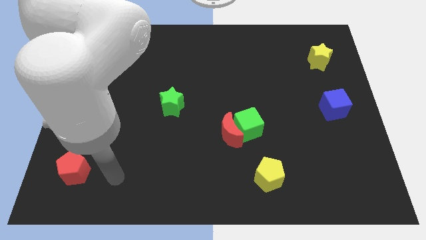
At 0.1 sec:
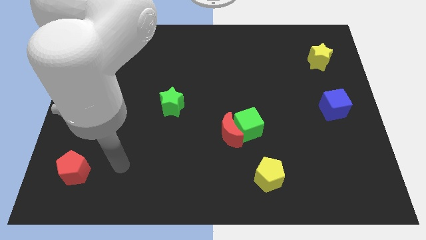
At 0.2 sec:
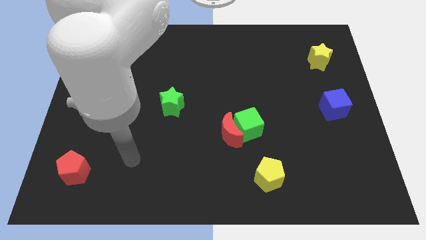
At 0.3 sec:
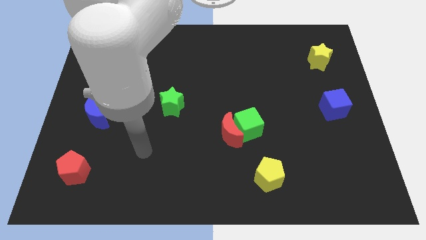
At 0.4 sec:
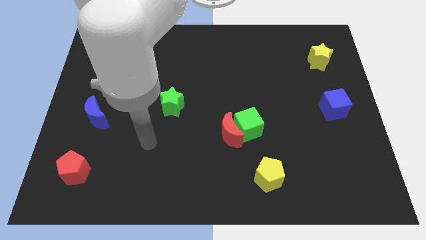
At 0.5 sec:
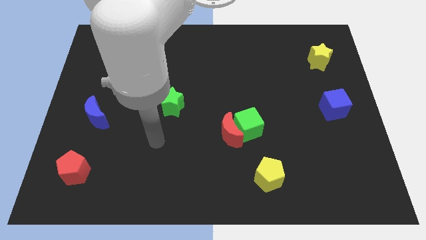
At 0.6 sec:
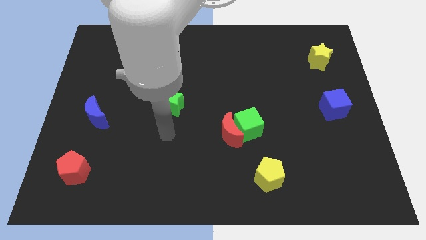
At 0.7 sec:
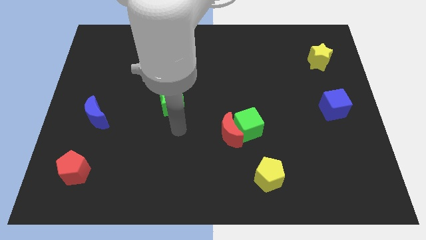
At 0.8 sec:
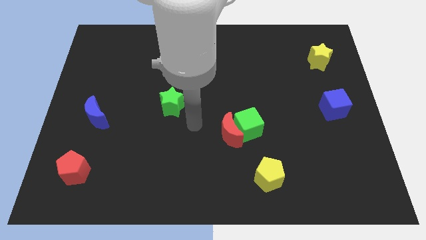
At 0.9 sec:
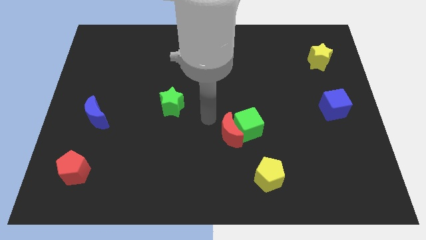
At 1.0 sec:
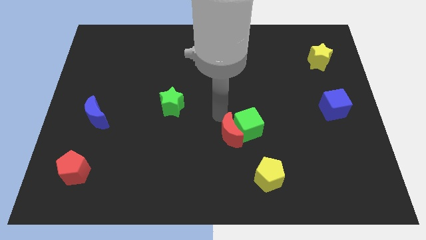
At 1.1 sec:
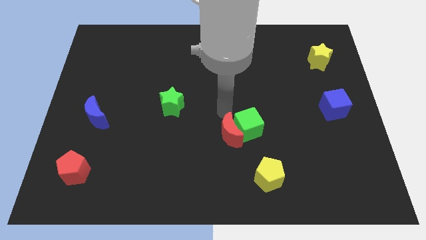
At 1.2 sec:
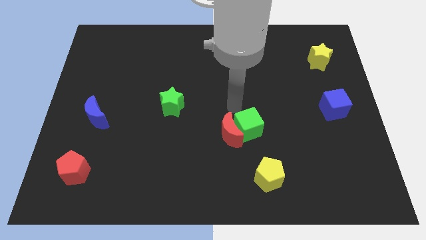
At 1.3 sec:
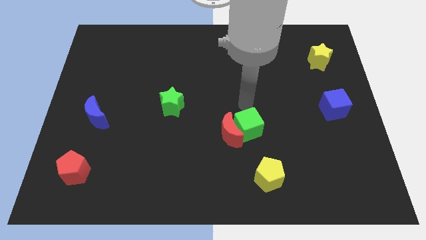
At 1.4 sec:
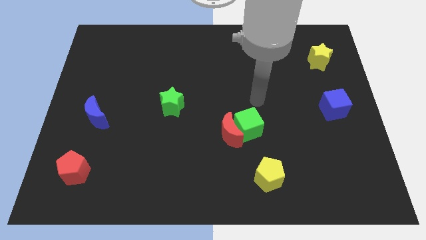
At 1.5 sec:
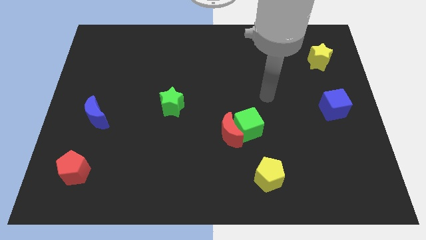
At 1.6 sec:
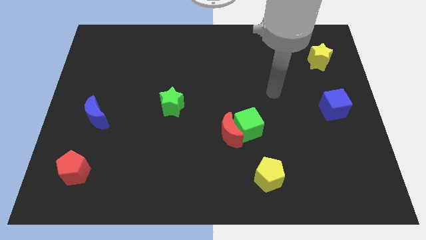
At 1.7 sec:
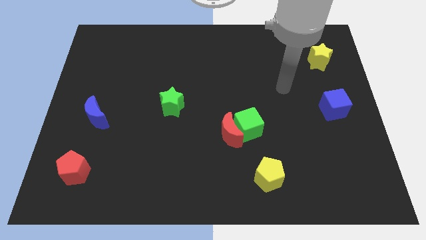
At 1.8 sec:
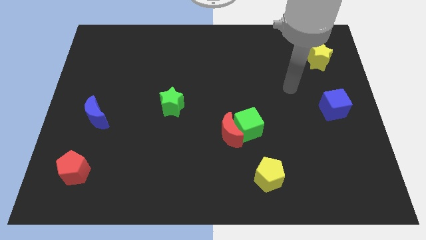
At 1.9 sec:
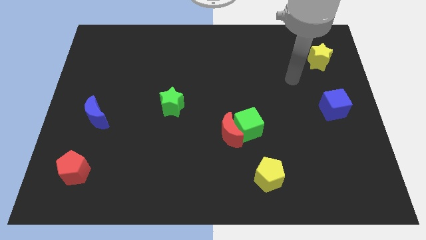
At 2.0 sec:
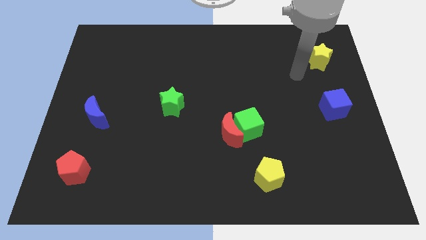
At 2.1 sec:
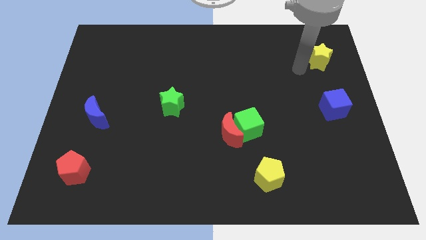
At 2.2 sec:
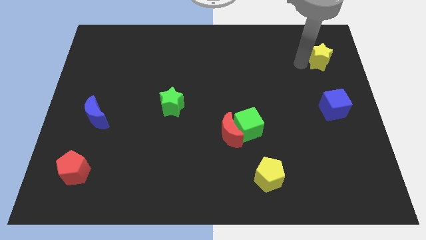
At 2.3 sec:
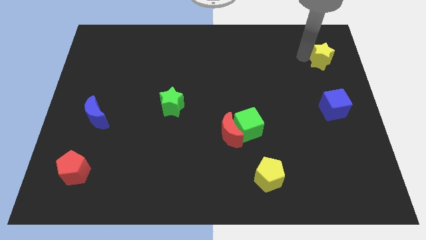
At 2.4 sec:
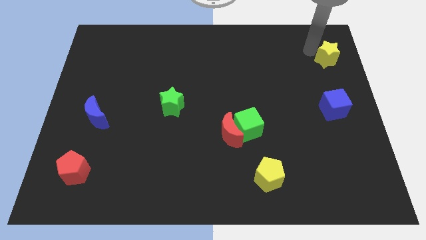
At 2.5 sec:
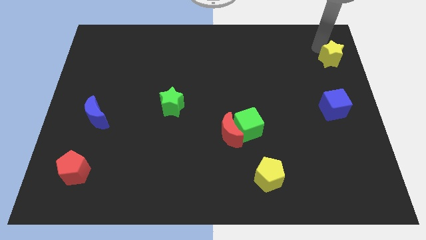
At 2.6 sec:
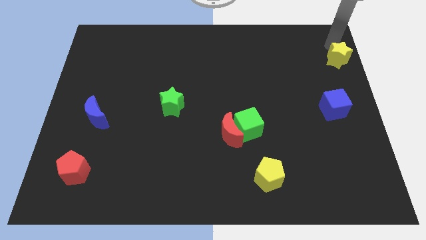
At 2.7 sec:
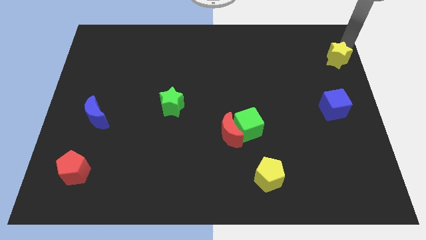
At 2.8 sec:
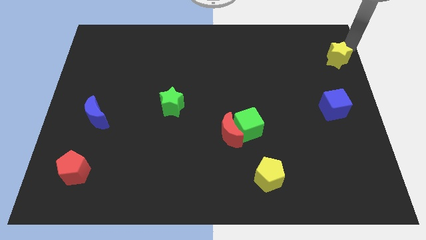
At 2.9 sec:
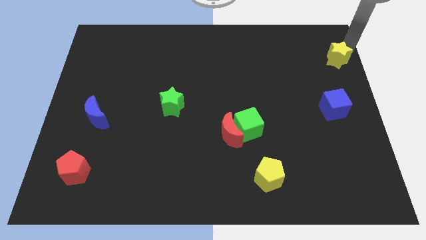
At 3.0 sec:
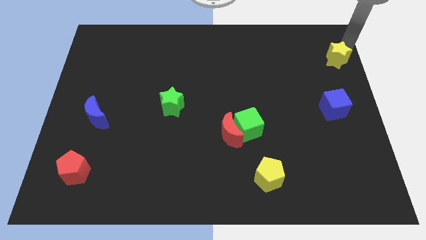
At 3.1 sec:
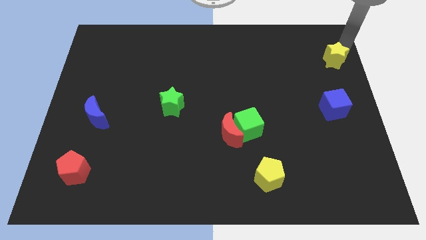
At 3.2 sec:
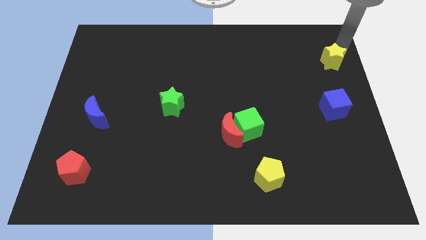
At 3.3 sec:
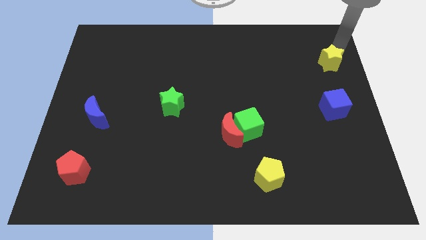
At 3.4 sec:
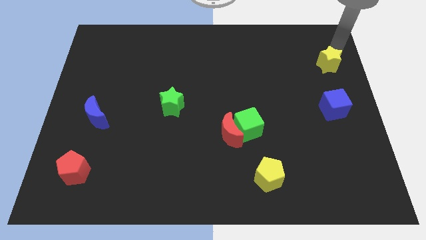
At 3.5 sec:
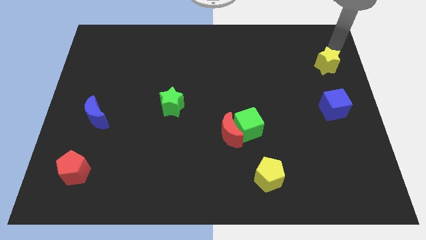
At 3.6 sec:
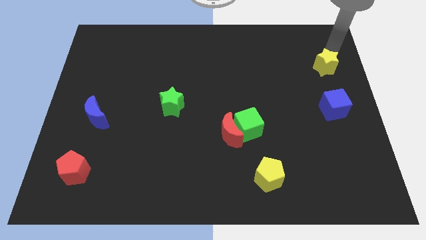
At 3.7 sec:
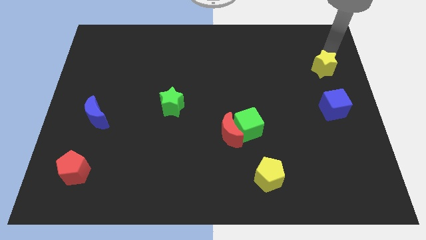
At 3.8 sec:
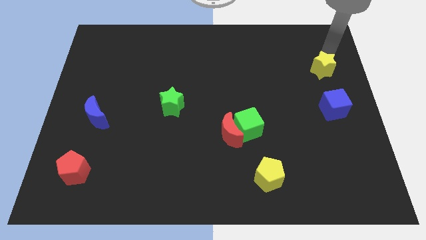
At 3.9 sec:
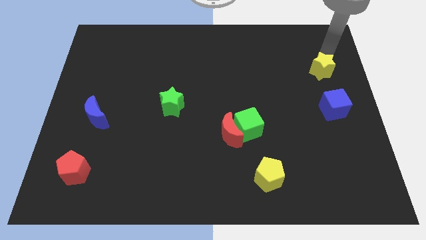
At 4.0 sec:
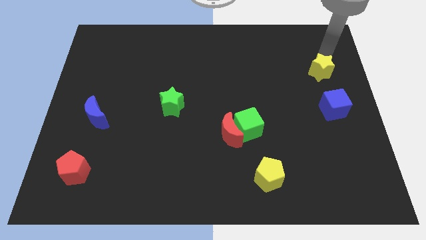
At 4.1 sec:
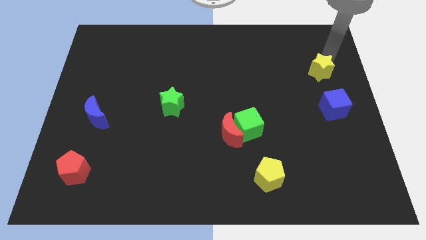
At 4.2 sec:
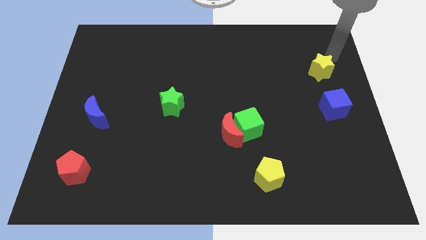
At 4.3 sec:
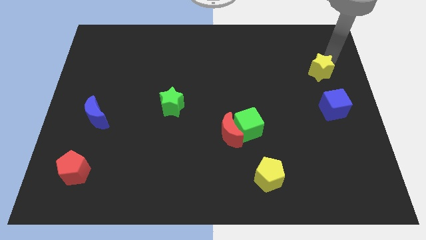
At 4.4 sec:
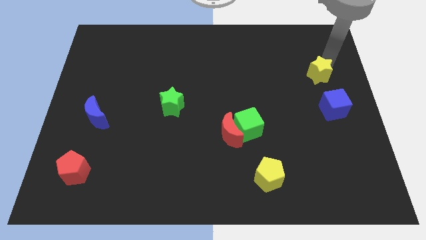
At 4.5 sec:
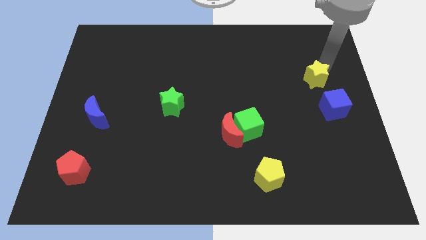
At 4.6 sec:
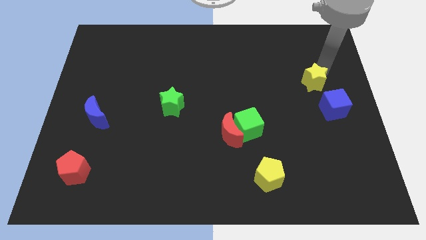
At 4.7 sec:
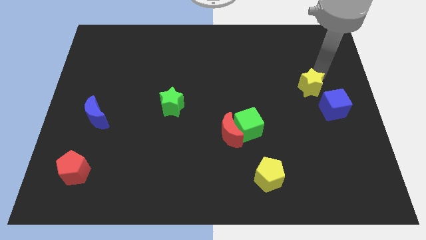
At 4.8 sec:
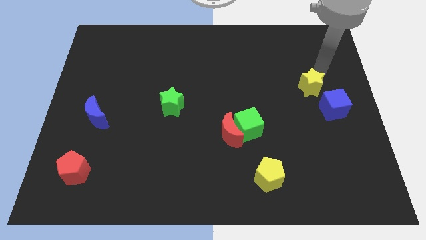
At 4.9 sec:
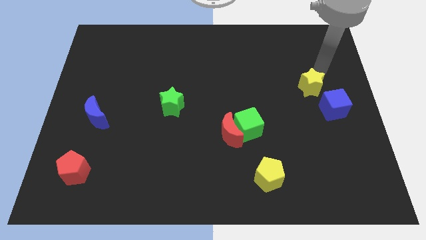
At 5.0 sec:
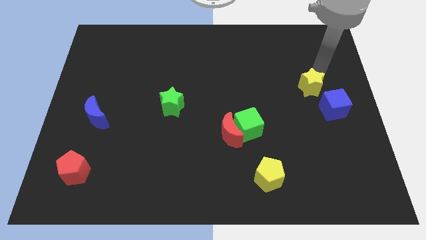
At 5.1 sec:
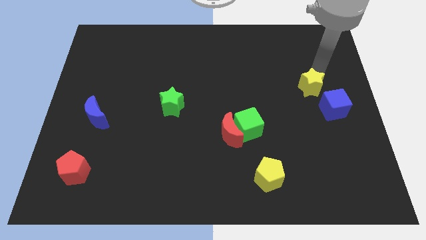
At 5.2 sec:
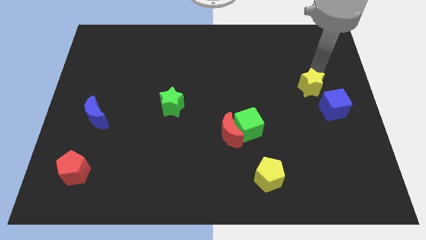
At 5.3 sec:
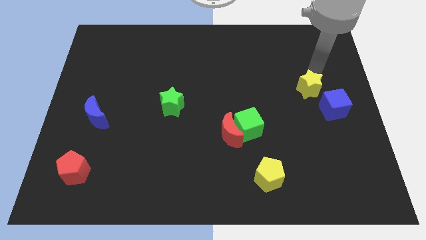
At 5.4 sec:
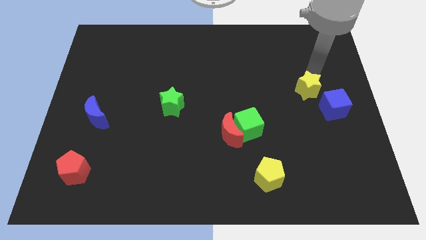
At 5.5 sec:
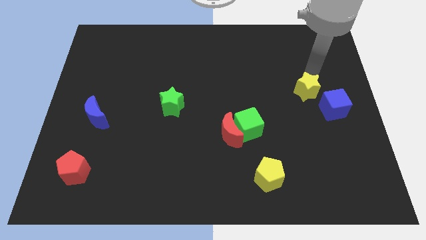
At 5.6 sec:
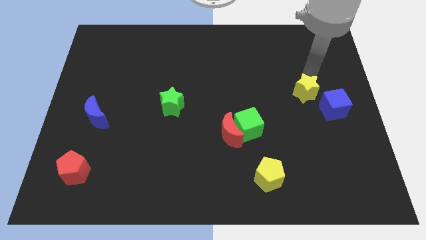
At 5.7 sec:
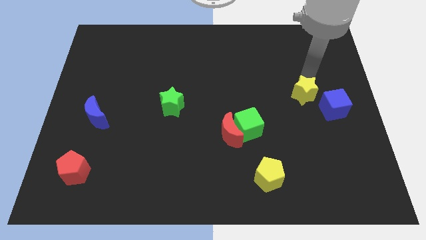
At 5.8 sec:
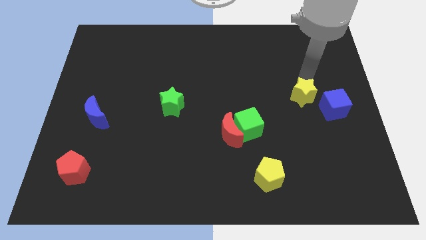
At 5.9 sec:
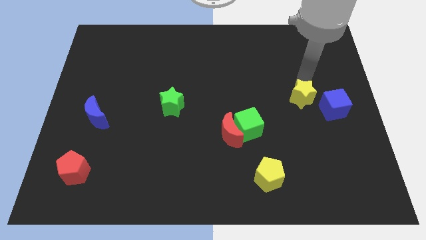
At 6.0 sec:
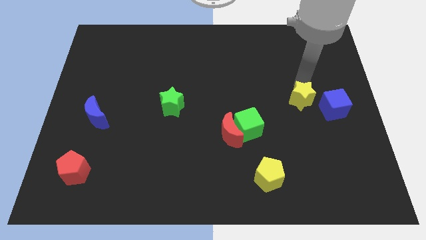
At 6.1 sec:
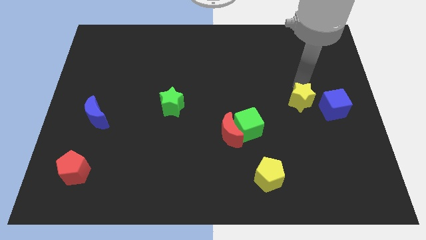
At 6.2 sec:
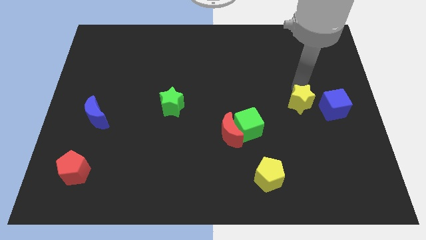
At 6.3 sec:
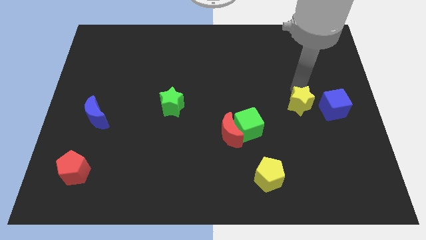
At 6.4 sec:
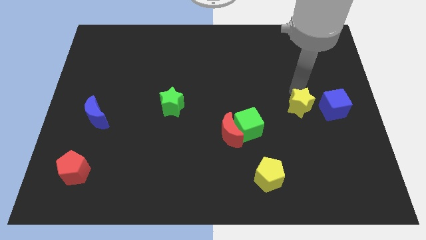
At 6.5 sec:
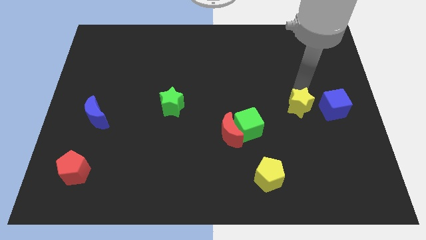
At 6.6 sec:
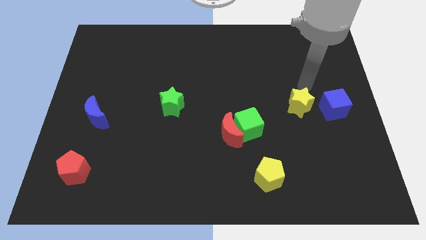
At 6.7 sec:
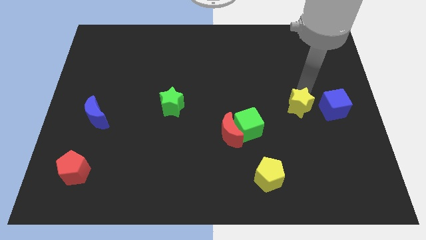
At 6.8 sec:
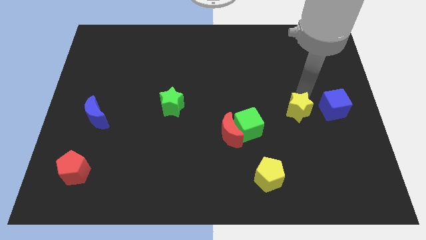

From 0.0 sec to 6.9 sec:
push the yellow star just right of the green cube
